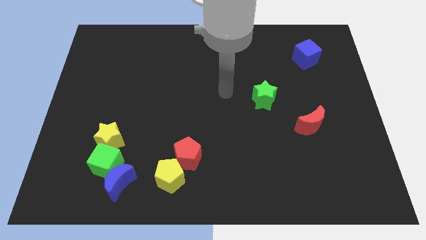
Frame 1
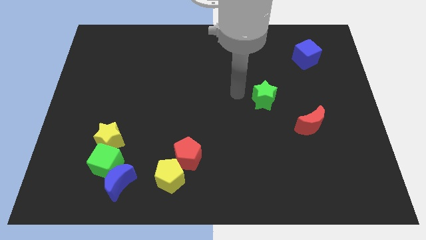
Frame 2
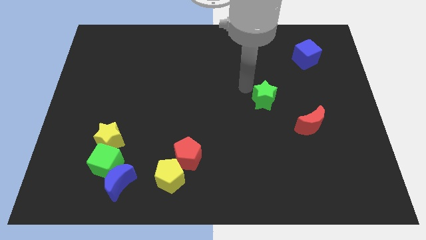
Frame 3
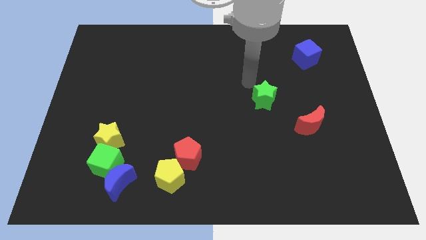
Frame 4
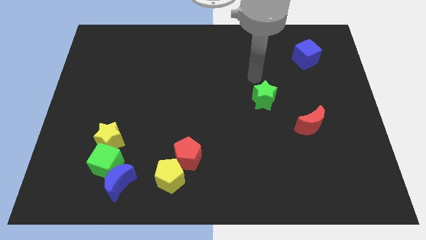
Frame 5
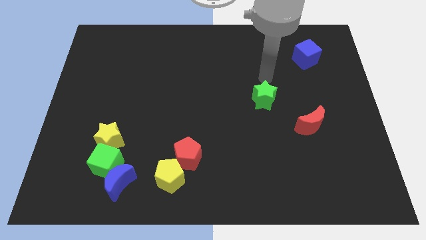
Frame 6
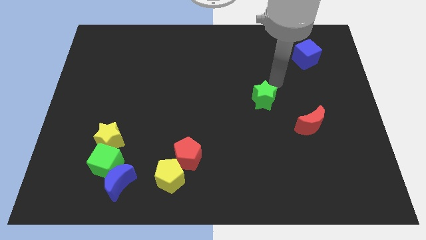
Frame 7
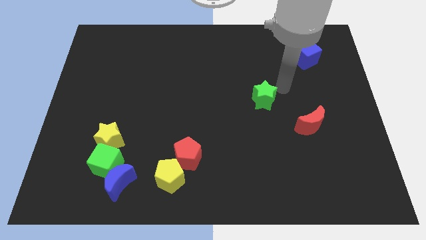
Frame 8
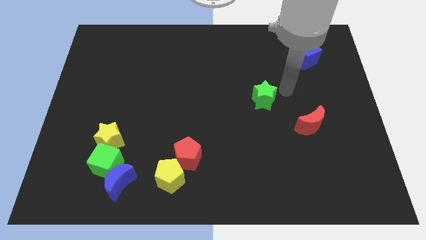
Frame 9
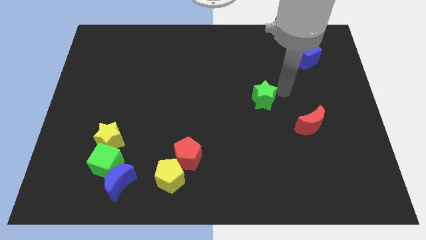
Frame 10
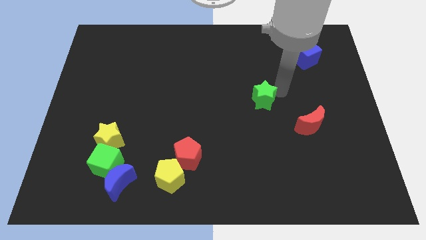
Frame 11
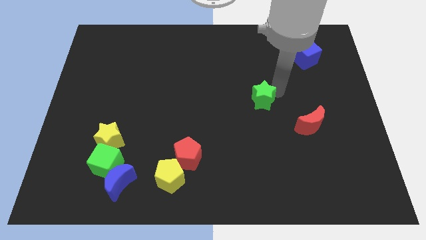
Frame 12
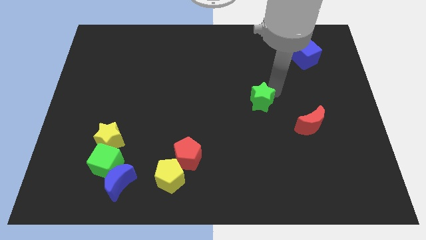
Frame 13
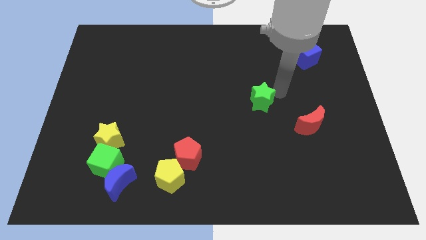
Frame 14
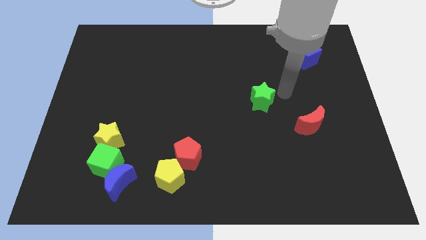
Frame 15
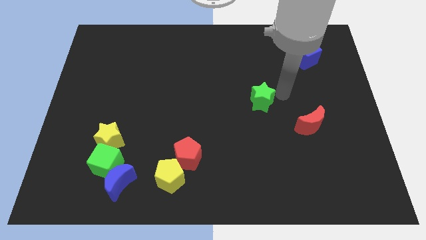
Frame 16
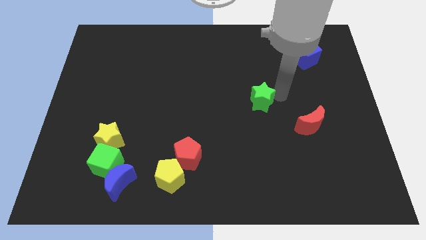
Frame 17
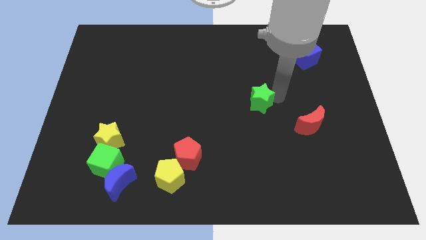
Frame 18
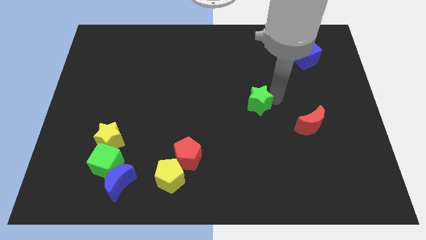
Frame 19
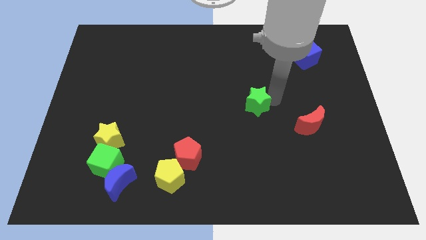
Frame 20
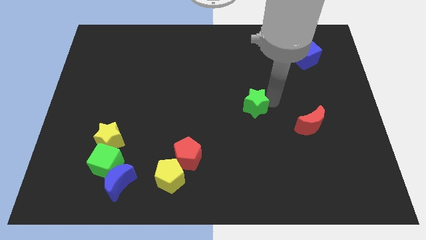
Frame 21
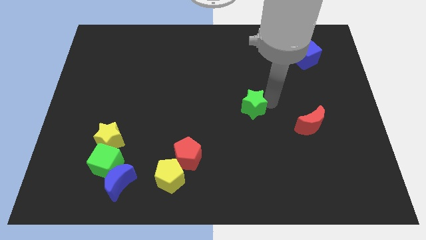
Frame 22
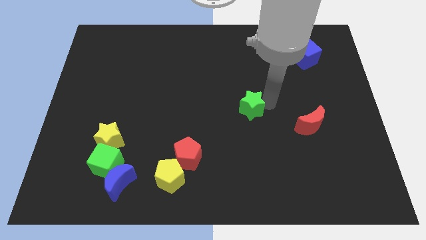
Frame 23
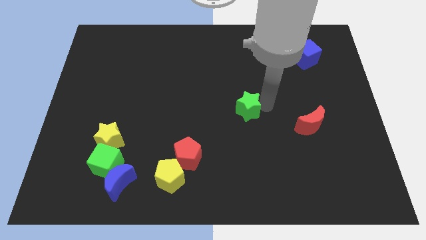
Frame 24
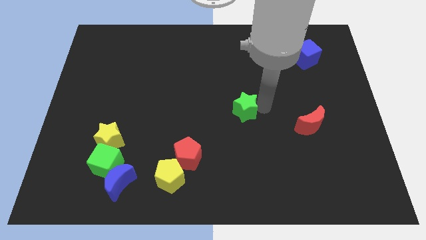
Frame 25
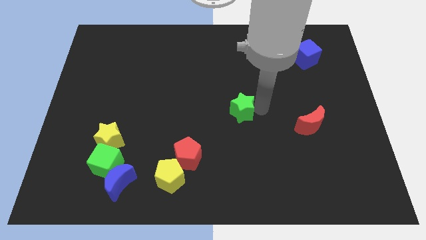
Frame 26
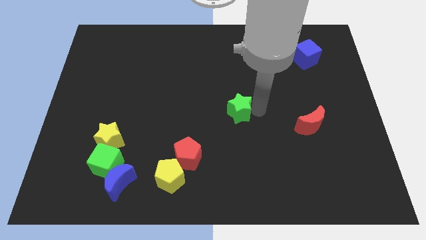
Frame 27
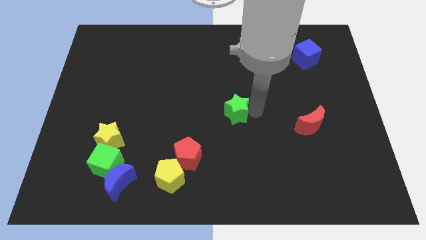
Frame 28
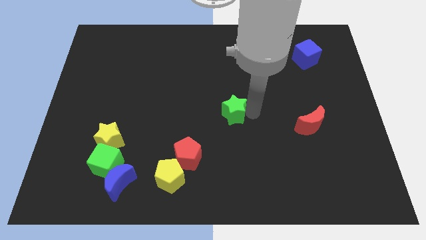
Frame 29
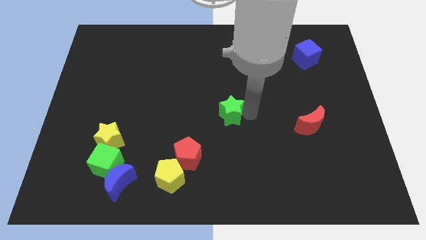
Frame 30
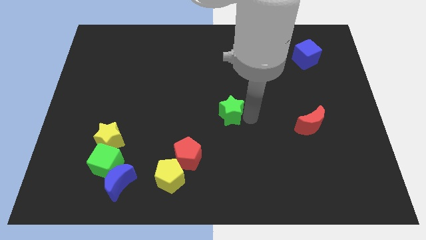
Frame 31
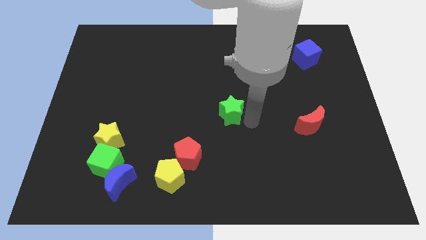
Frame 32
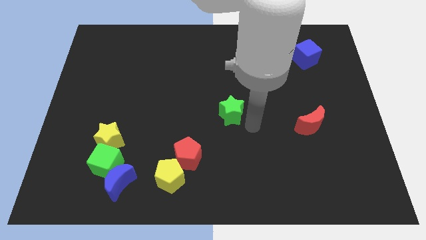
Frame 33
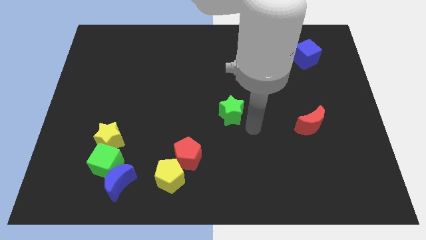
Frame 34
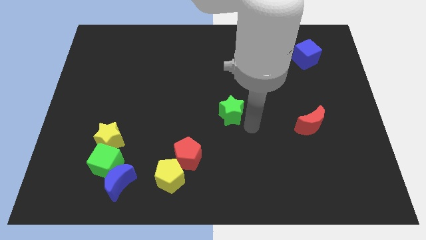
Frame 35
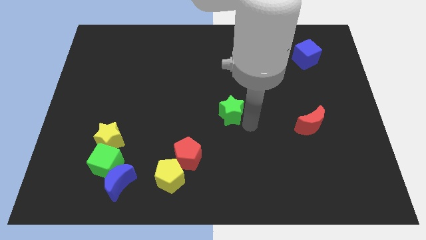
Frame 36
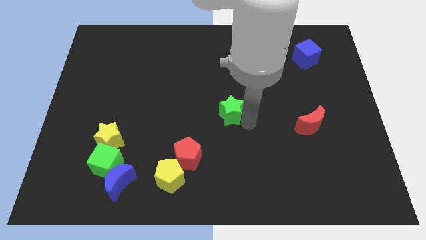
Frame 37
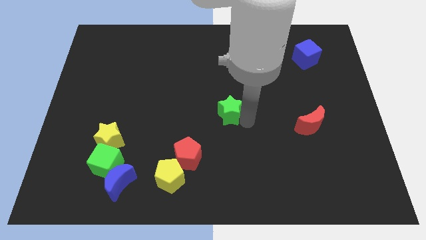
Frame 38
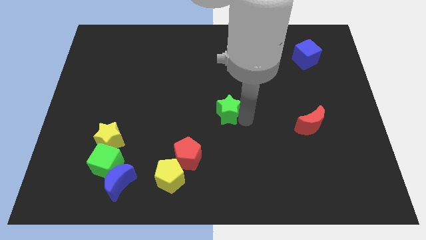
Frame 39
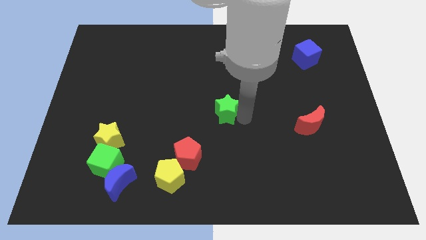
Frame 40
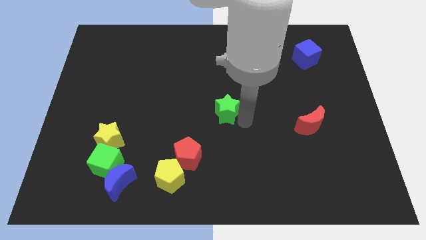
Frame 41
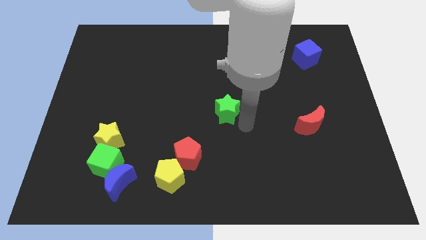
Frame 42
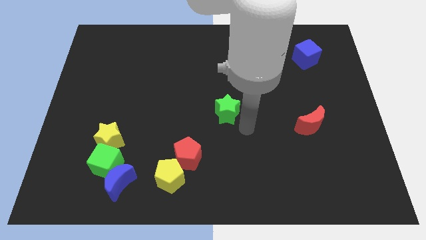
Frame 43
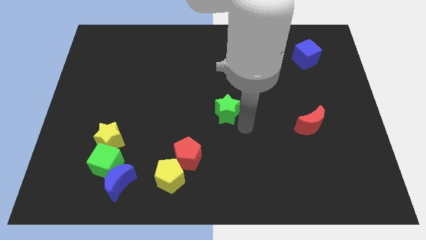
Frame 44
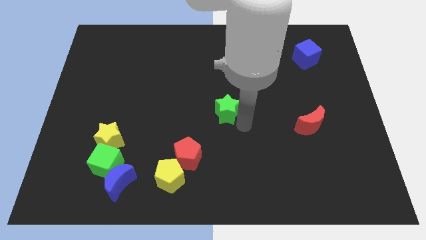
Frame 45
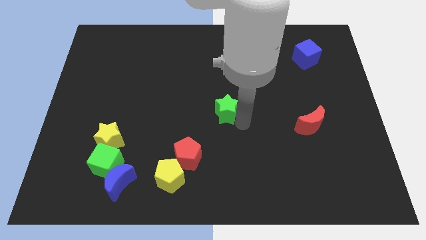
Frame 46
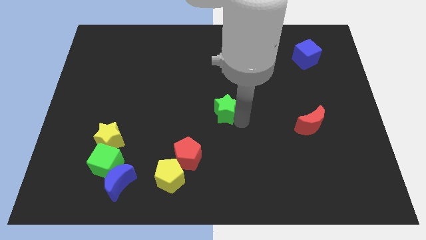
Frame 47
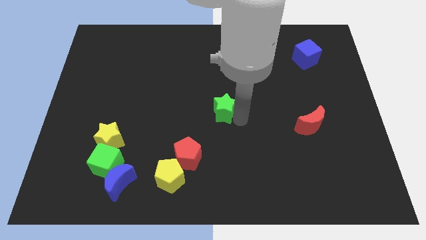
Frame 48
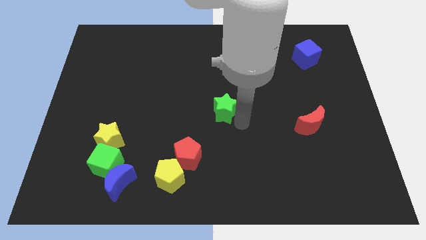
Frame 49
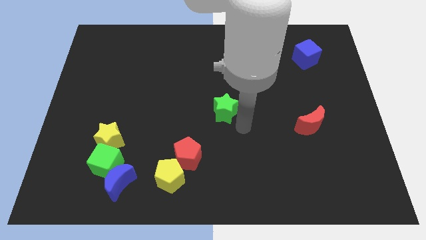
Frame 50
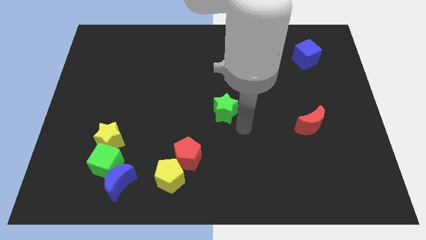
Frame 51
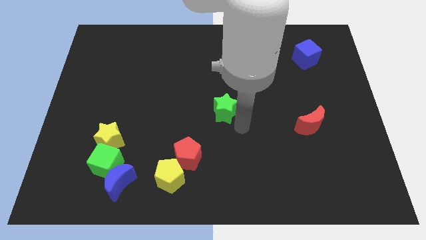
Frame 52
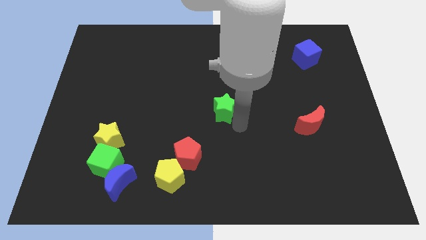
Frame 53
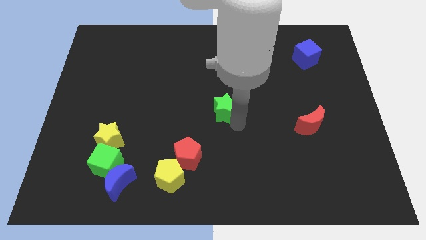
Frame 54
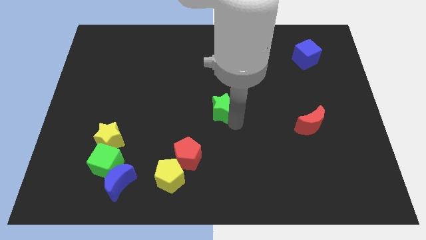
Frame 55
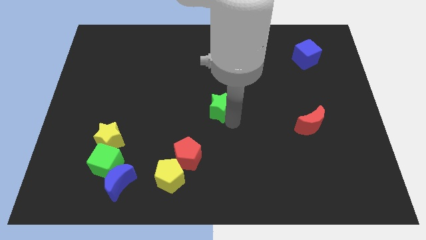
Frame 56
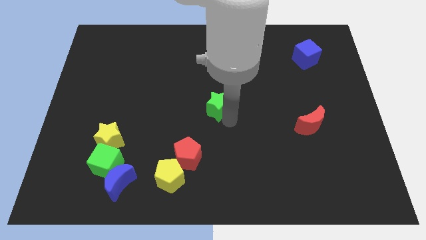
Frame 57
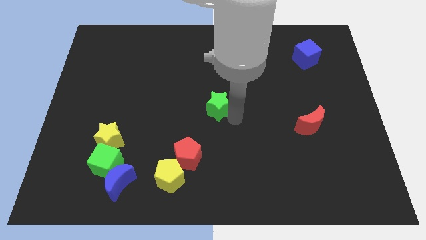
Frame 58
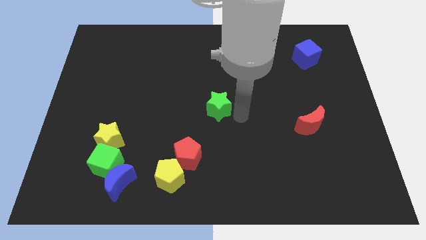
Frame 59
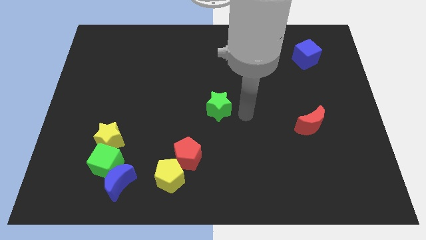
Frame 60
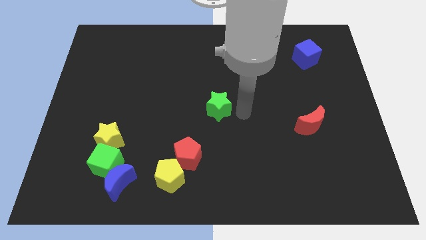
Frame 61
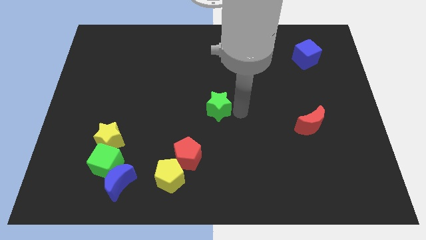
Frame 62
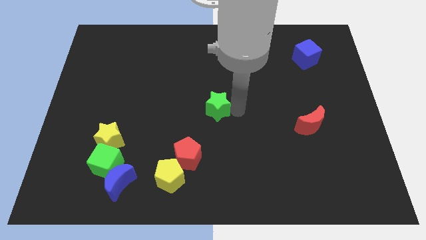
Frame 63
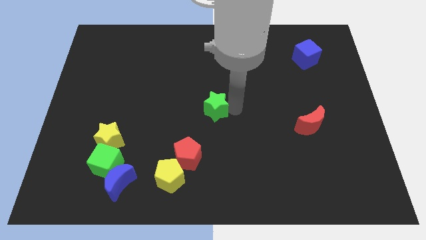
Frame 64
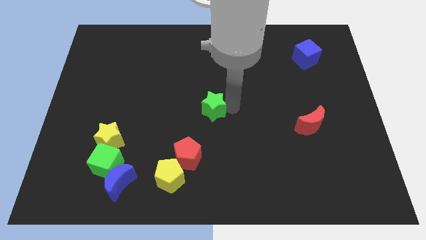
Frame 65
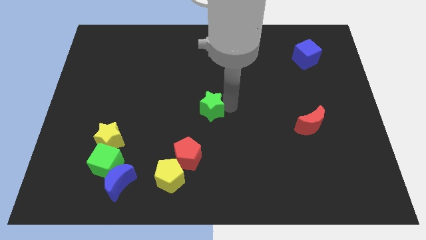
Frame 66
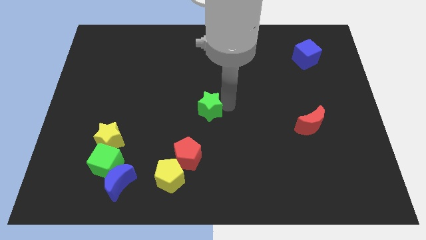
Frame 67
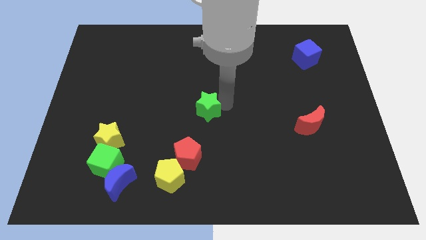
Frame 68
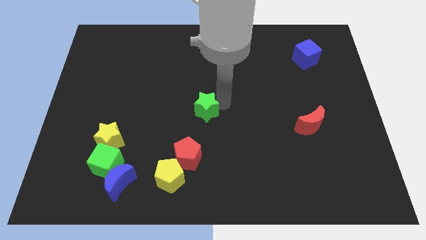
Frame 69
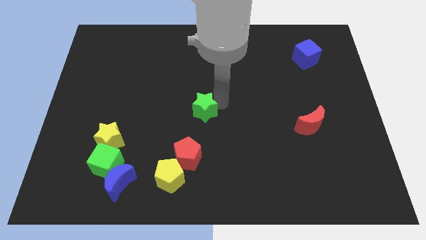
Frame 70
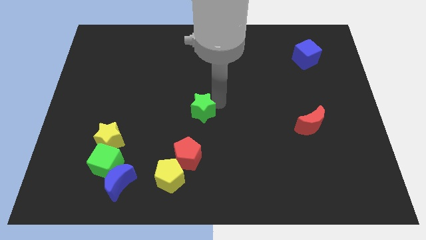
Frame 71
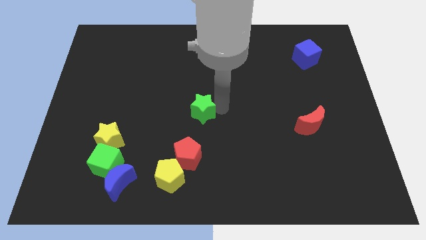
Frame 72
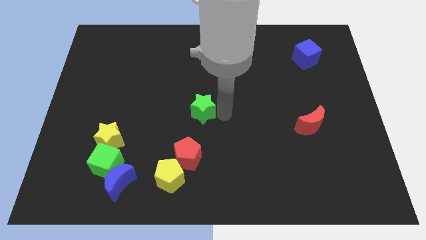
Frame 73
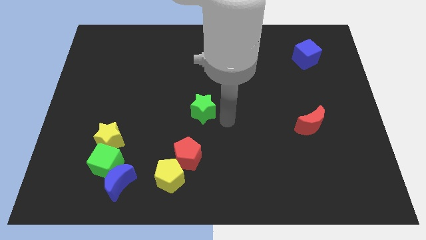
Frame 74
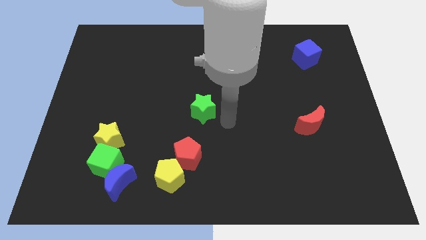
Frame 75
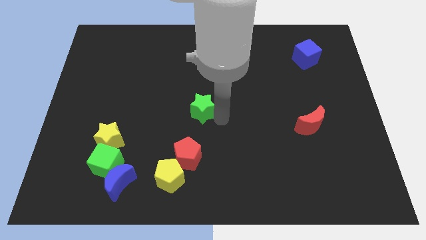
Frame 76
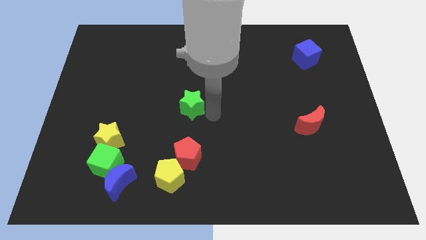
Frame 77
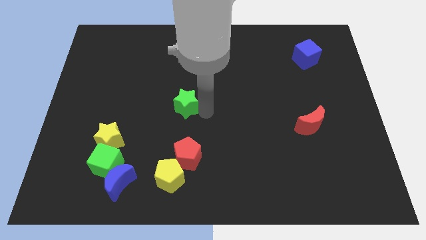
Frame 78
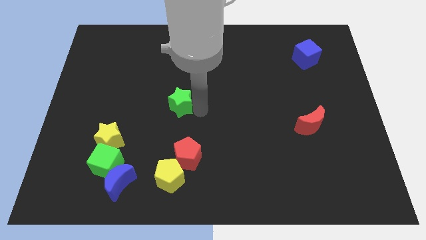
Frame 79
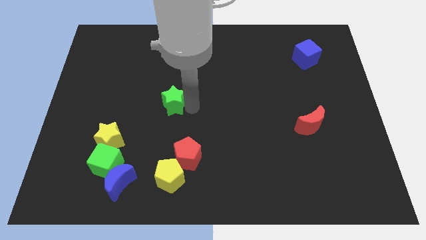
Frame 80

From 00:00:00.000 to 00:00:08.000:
move the green star to the left

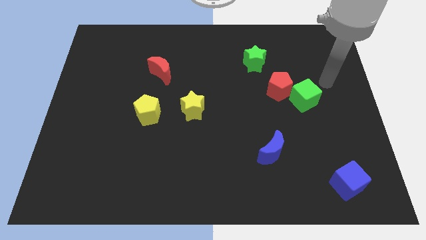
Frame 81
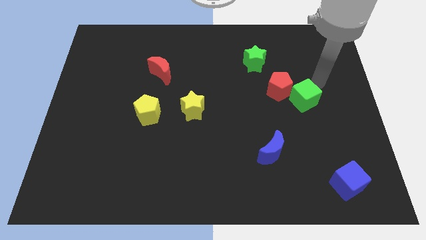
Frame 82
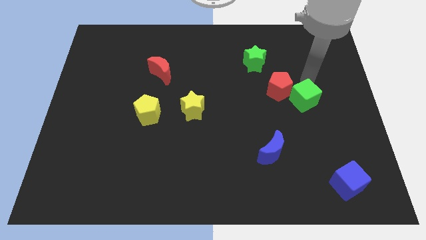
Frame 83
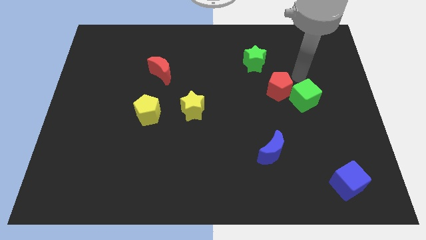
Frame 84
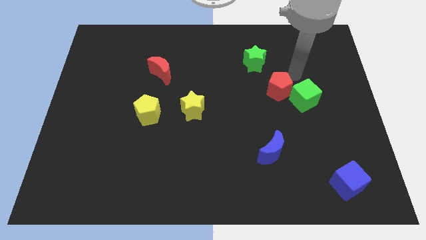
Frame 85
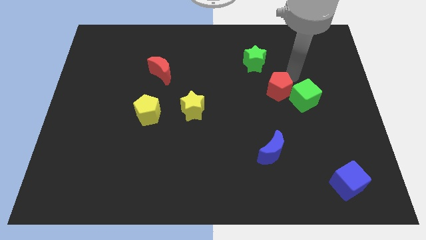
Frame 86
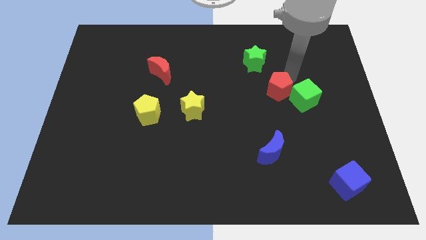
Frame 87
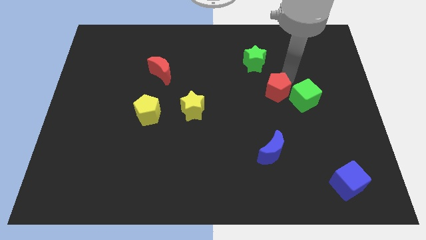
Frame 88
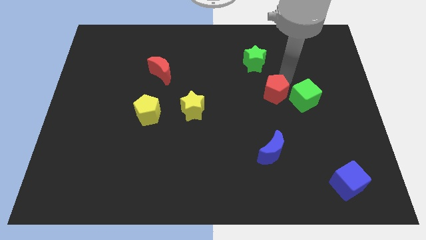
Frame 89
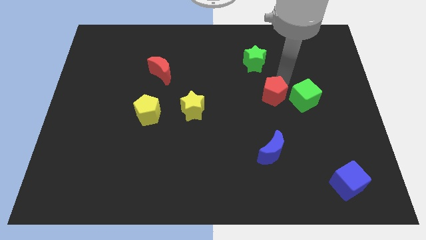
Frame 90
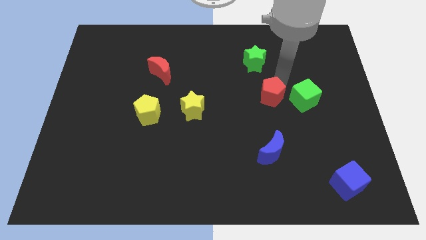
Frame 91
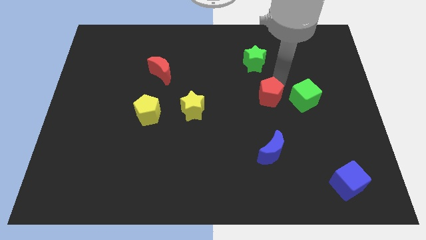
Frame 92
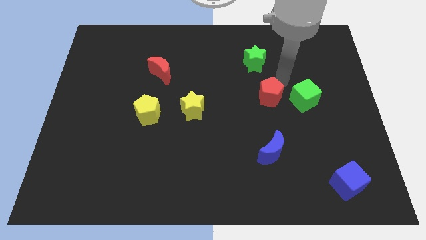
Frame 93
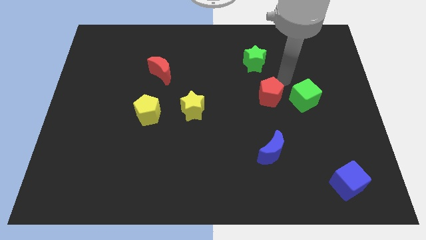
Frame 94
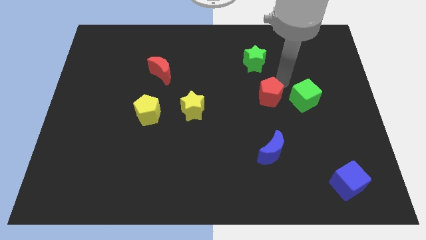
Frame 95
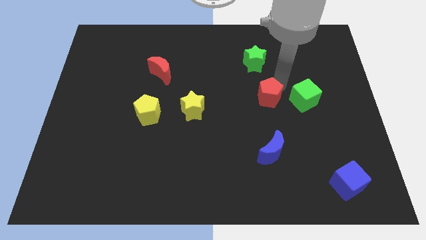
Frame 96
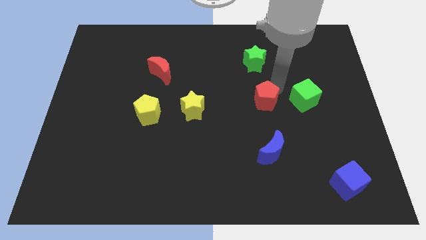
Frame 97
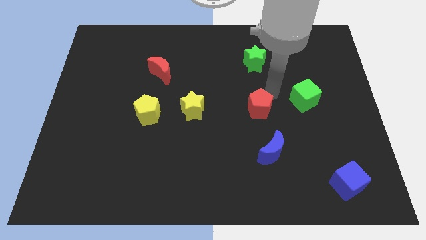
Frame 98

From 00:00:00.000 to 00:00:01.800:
slide the red pentagon diagonally down and to the left somewhat
